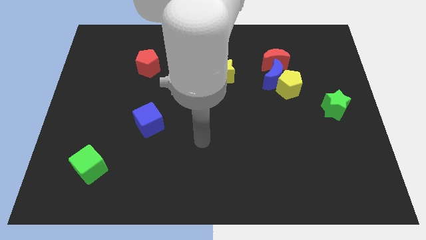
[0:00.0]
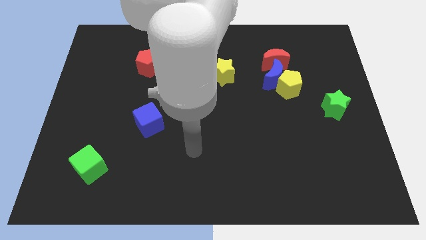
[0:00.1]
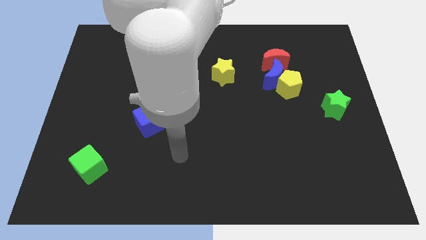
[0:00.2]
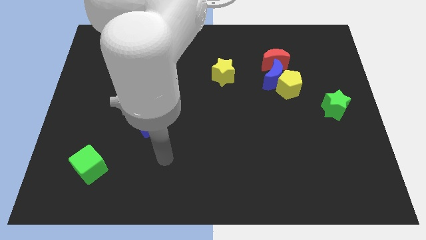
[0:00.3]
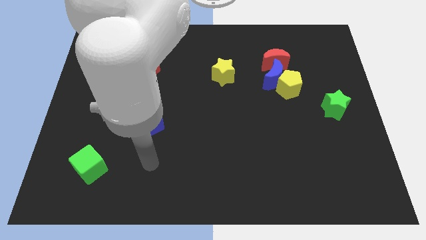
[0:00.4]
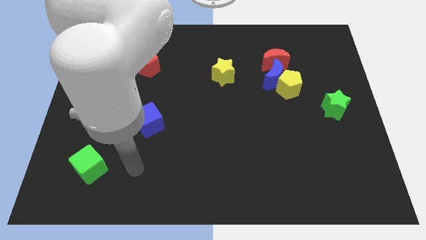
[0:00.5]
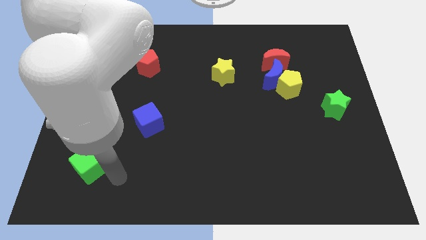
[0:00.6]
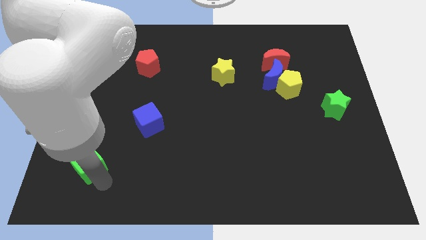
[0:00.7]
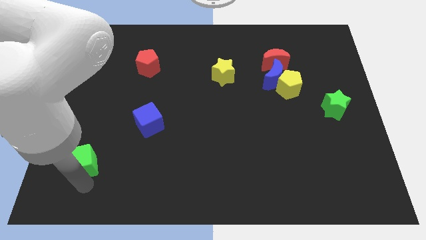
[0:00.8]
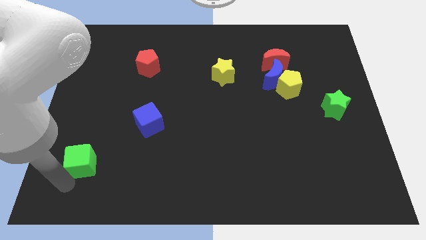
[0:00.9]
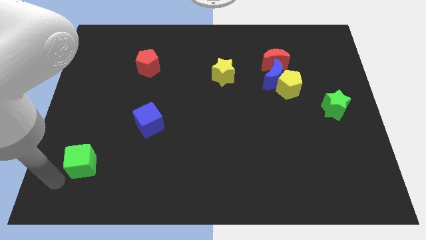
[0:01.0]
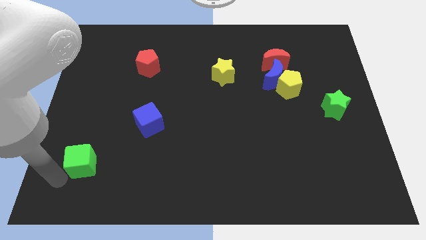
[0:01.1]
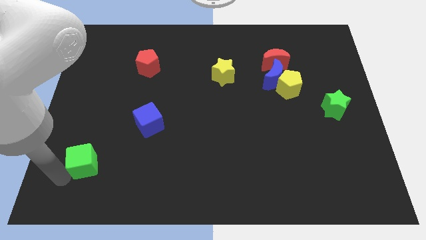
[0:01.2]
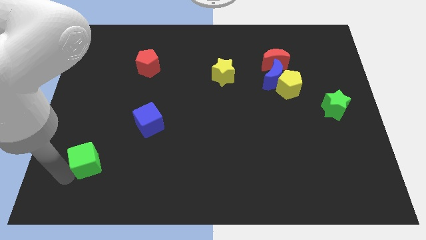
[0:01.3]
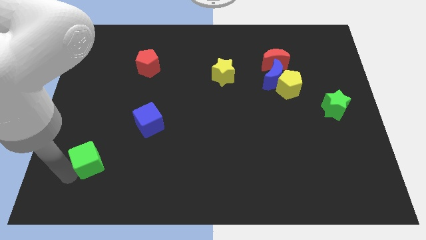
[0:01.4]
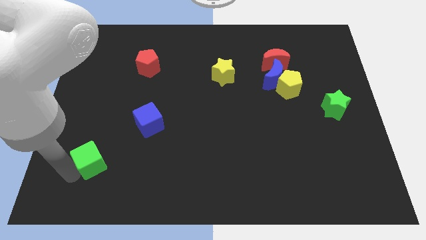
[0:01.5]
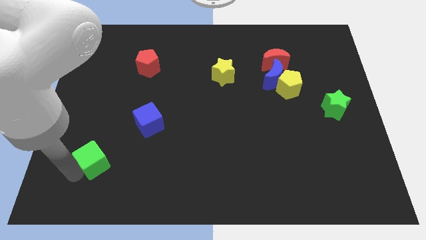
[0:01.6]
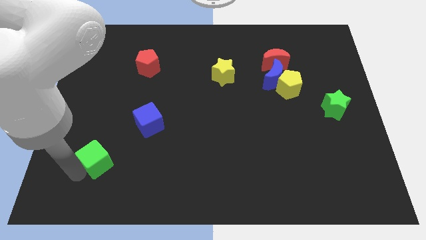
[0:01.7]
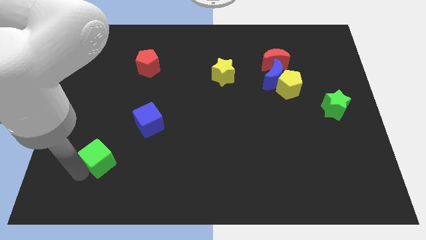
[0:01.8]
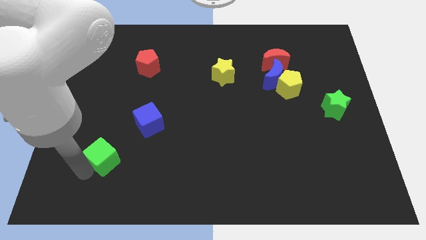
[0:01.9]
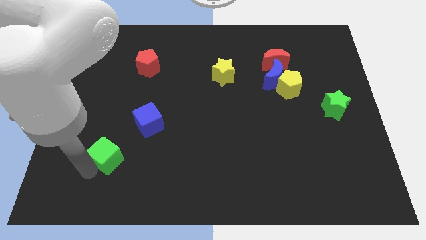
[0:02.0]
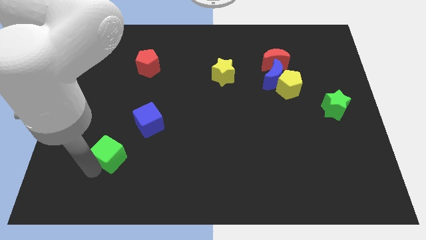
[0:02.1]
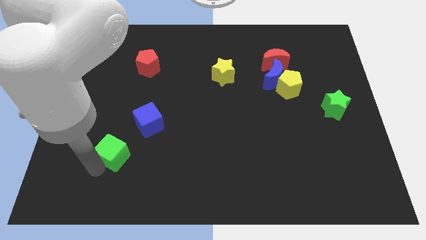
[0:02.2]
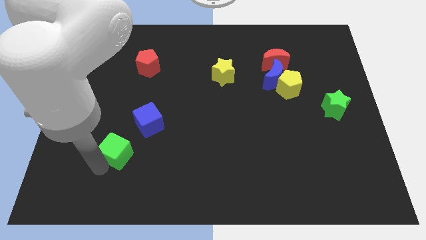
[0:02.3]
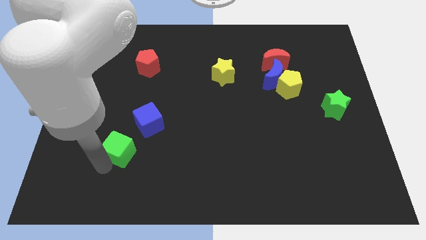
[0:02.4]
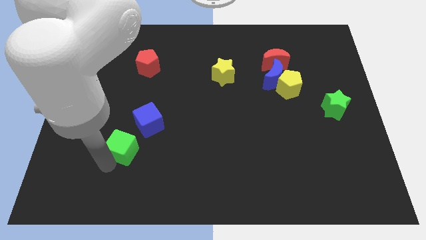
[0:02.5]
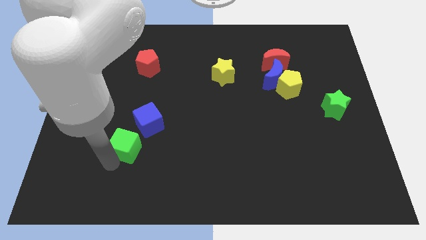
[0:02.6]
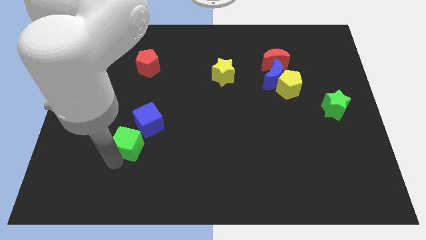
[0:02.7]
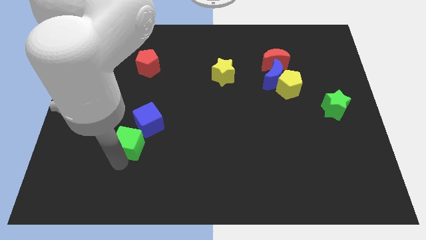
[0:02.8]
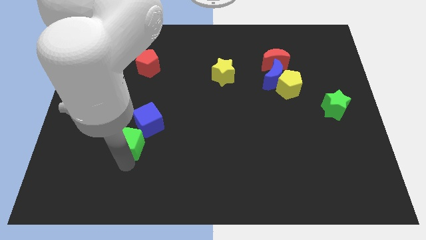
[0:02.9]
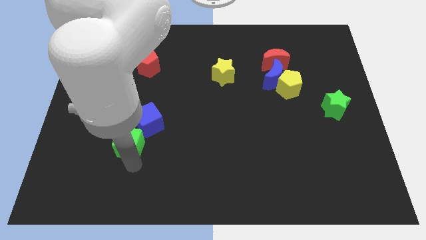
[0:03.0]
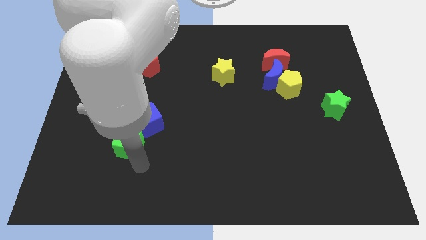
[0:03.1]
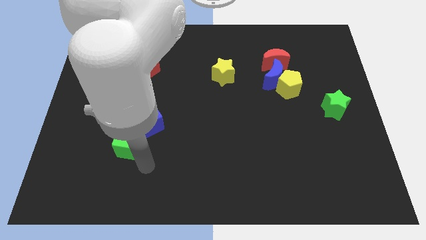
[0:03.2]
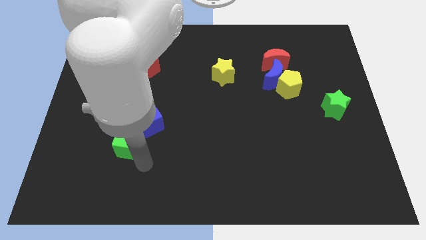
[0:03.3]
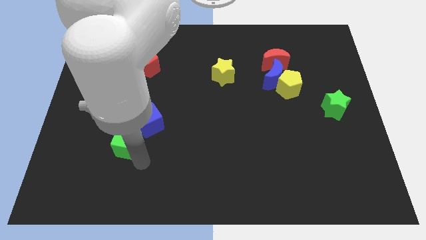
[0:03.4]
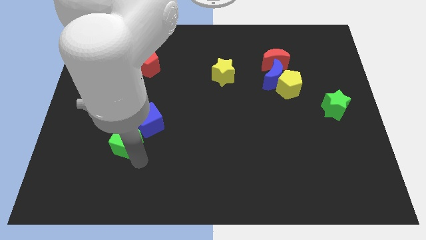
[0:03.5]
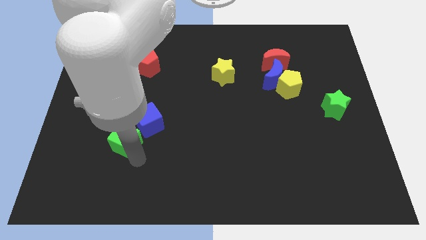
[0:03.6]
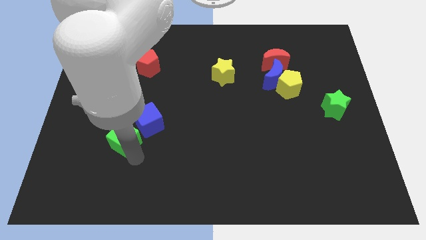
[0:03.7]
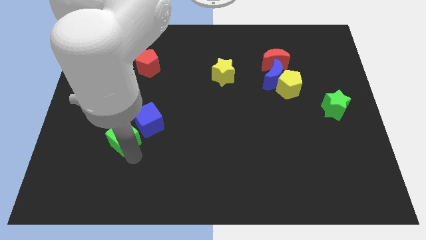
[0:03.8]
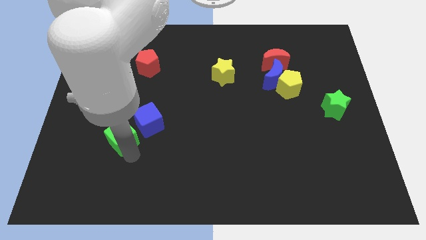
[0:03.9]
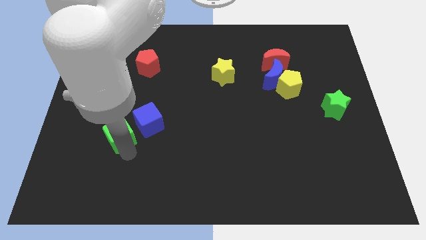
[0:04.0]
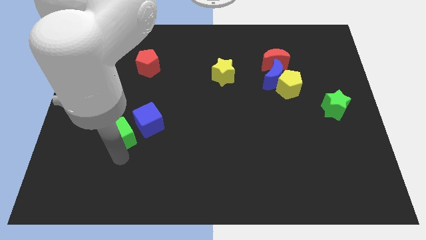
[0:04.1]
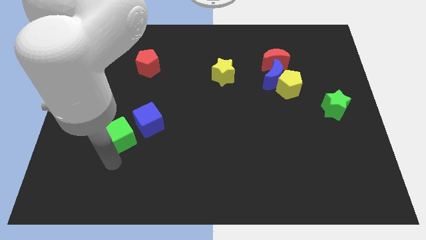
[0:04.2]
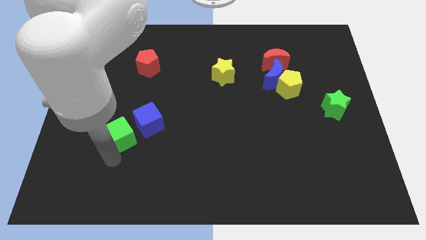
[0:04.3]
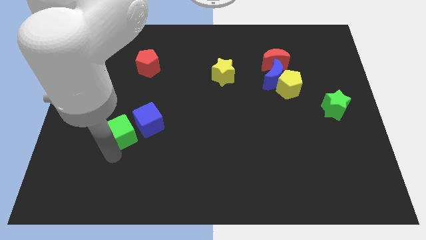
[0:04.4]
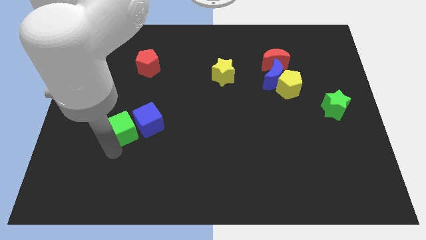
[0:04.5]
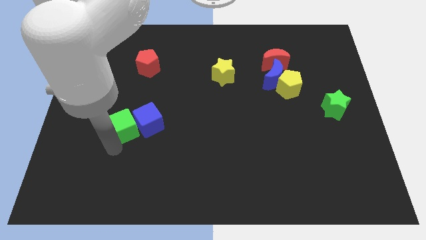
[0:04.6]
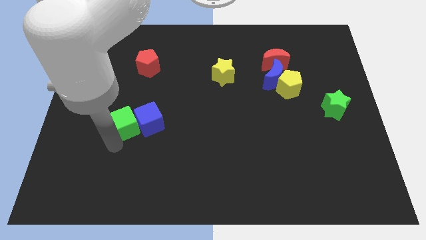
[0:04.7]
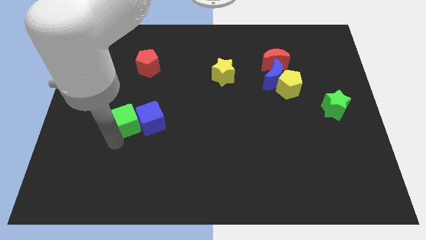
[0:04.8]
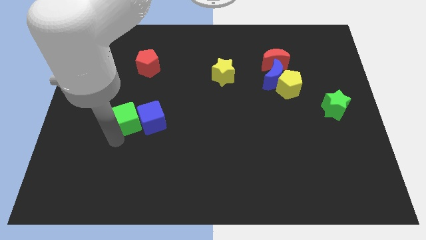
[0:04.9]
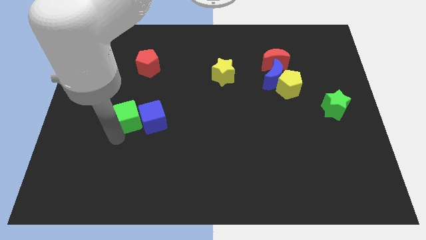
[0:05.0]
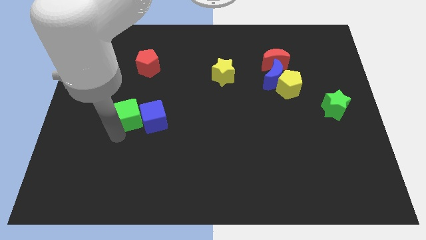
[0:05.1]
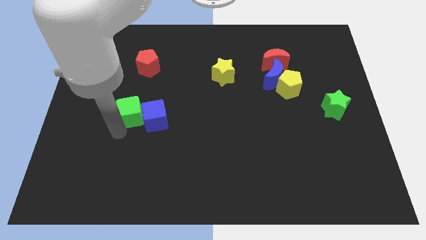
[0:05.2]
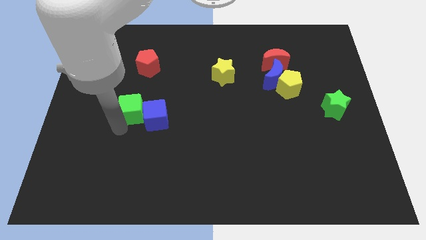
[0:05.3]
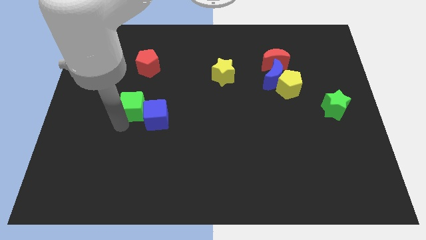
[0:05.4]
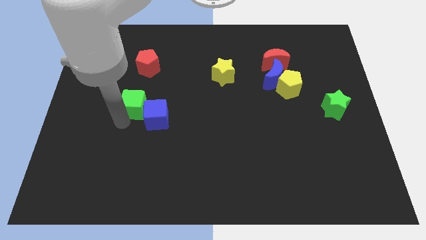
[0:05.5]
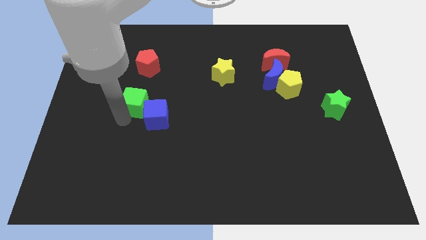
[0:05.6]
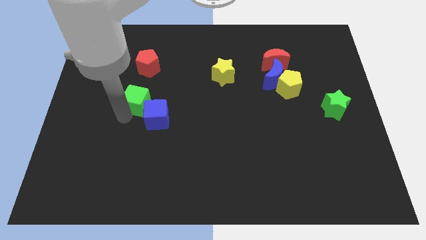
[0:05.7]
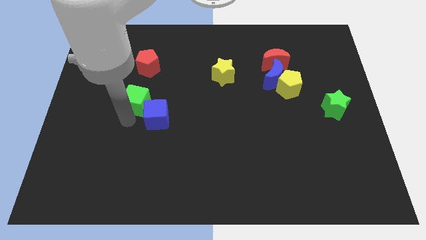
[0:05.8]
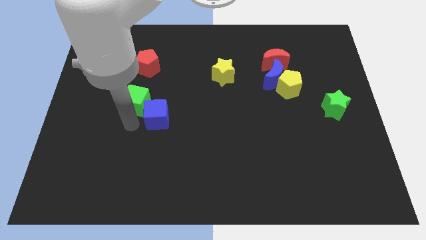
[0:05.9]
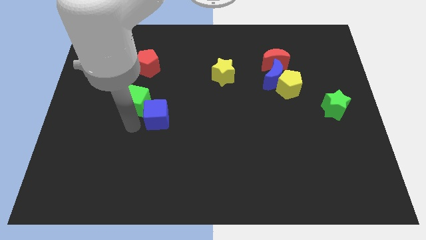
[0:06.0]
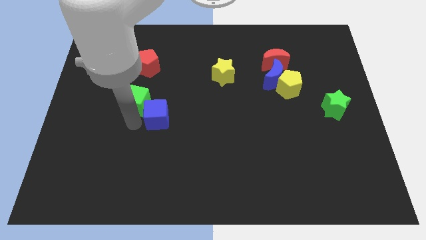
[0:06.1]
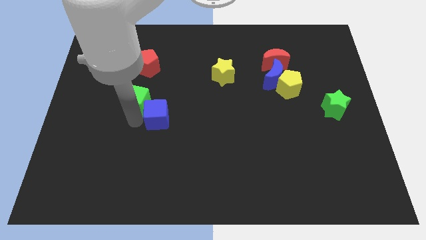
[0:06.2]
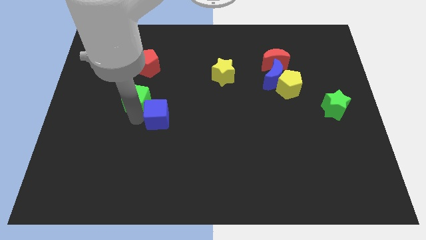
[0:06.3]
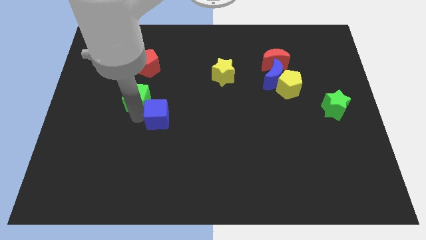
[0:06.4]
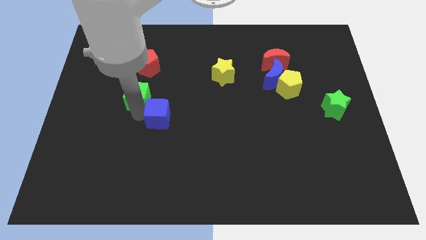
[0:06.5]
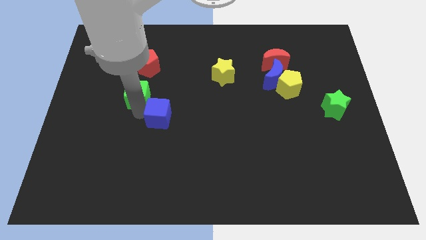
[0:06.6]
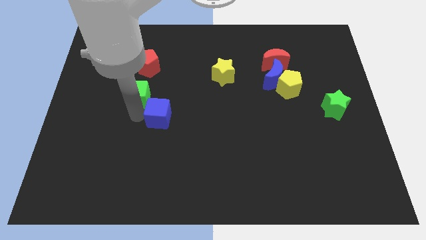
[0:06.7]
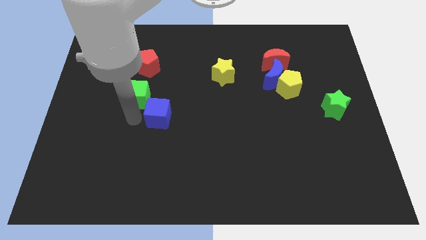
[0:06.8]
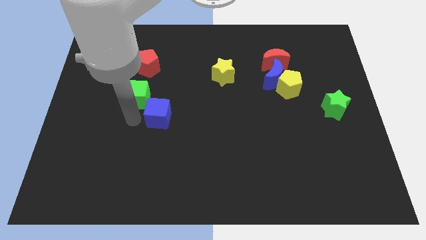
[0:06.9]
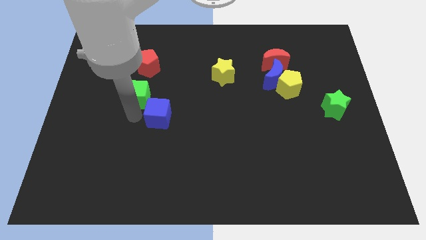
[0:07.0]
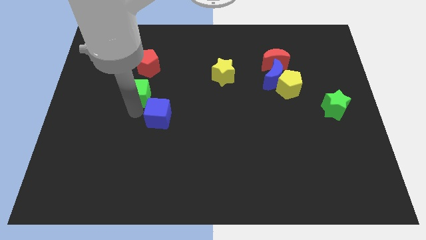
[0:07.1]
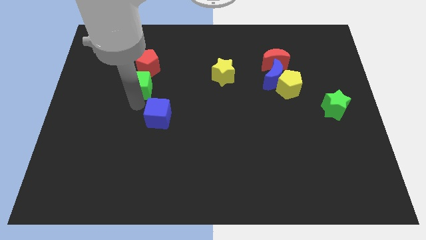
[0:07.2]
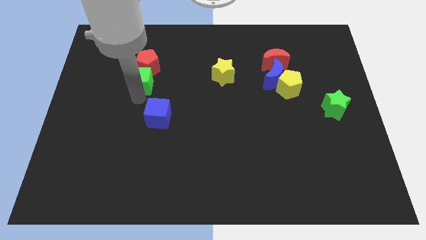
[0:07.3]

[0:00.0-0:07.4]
put the green cube close to the red pentagon

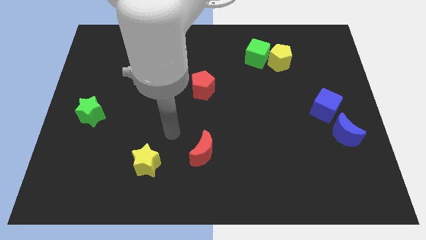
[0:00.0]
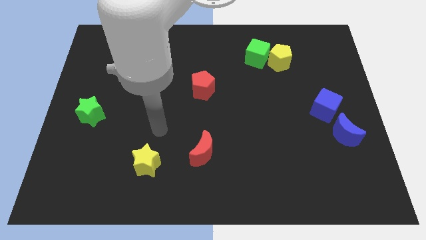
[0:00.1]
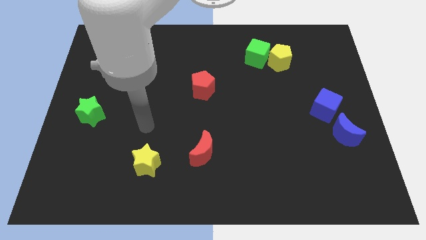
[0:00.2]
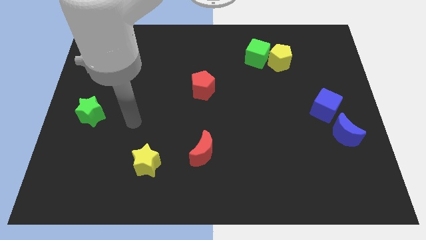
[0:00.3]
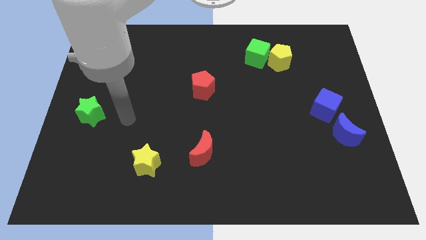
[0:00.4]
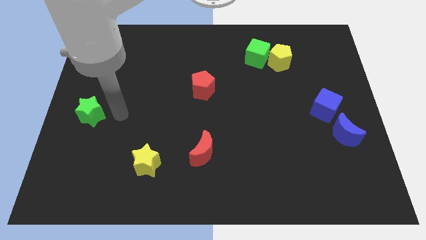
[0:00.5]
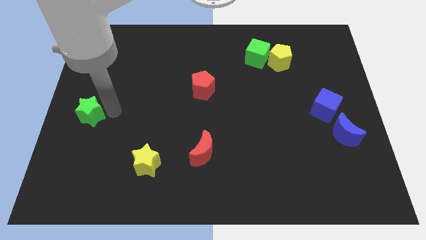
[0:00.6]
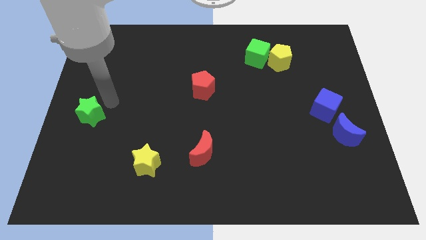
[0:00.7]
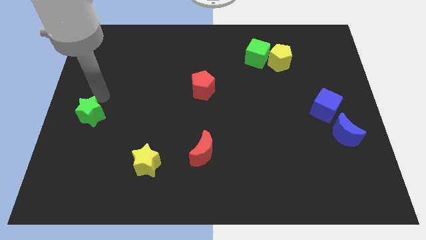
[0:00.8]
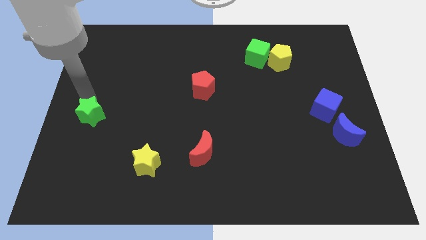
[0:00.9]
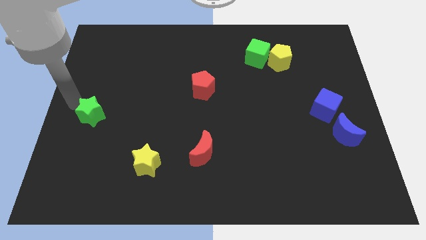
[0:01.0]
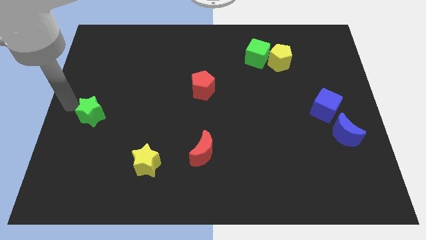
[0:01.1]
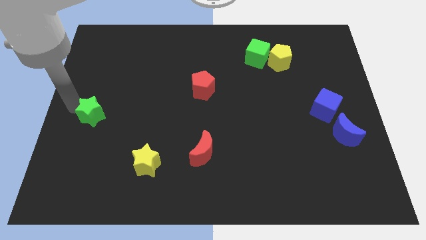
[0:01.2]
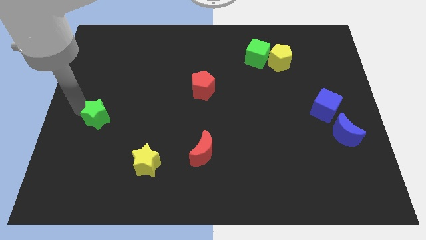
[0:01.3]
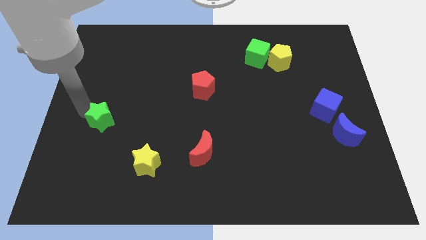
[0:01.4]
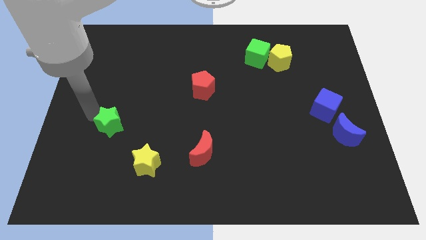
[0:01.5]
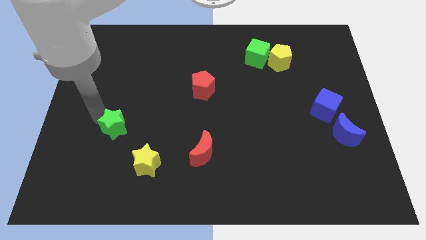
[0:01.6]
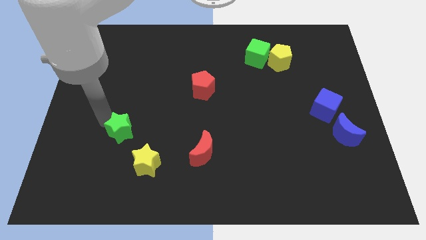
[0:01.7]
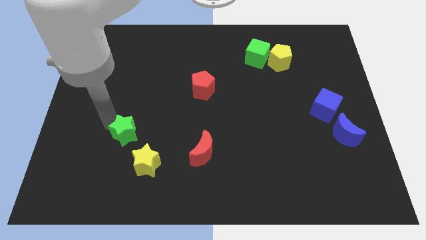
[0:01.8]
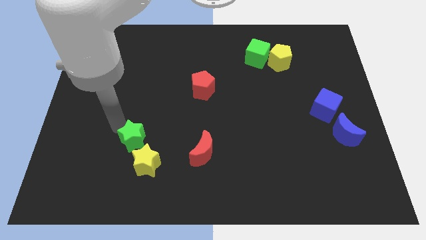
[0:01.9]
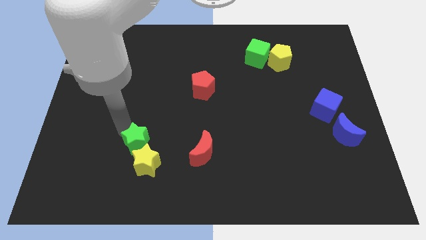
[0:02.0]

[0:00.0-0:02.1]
move the green star close to the yellow star
